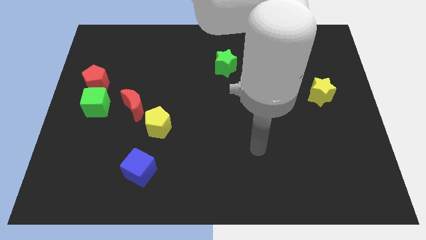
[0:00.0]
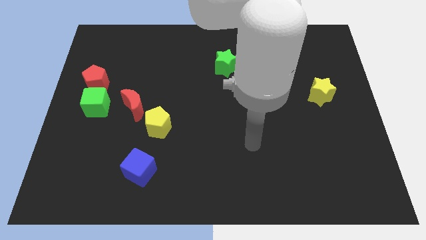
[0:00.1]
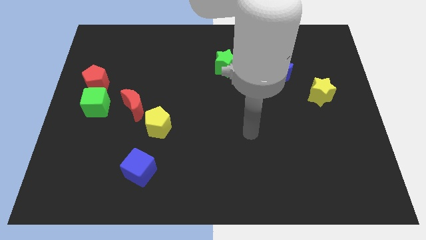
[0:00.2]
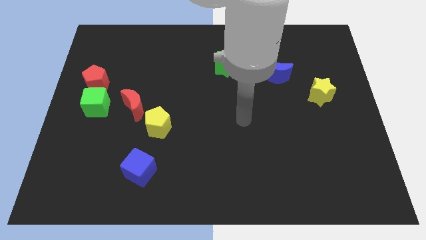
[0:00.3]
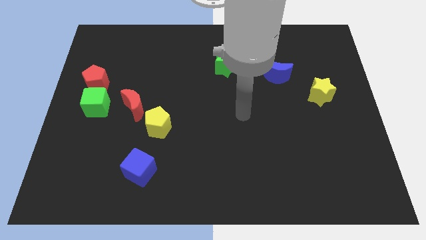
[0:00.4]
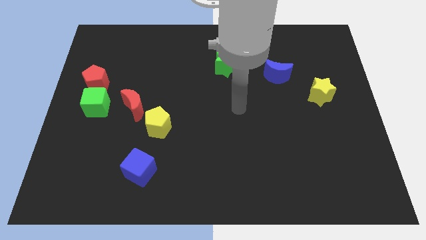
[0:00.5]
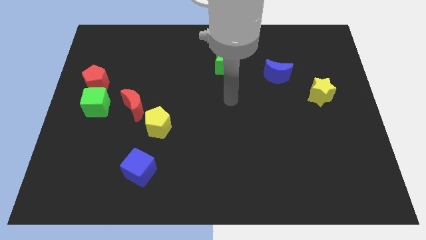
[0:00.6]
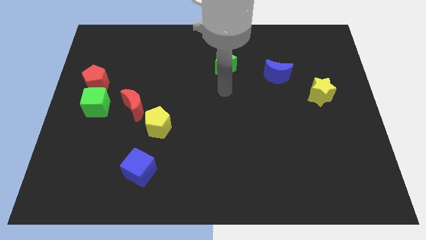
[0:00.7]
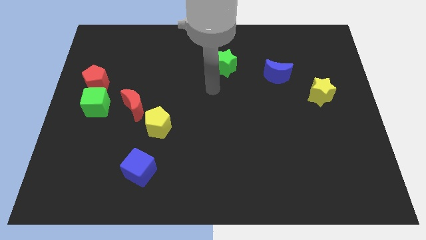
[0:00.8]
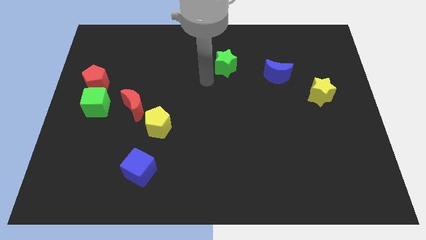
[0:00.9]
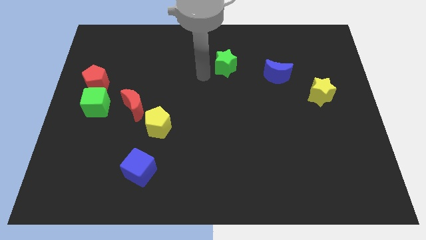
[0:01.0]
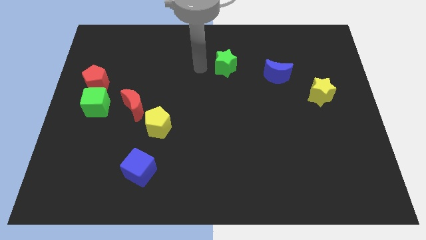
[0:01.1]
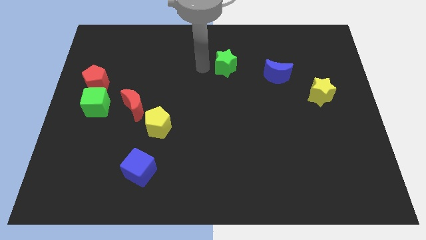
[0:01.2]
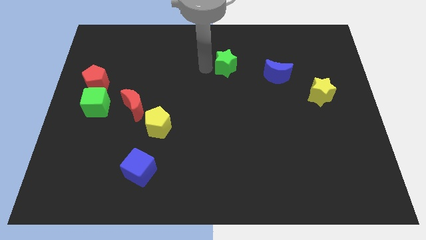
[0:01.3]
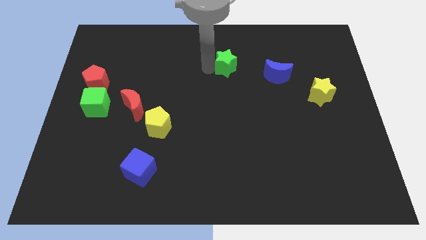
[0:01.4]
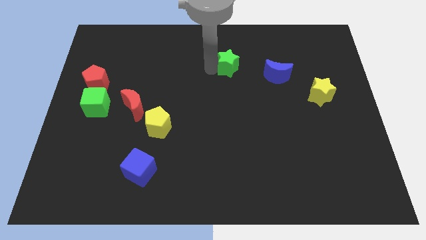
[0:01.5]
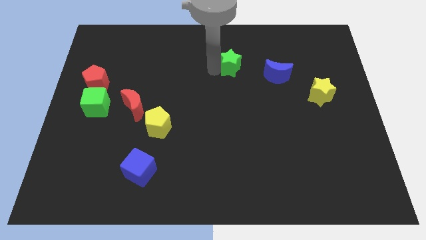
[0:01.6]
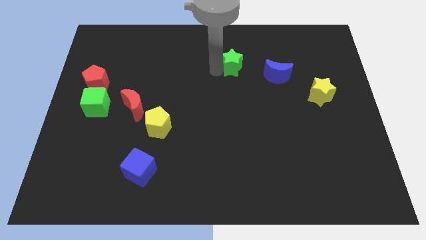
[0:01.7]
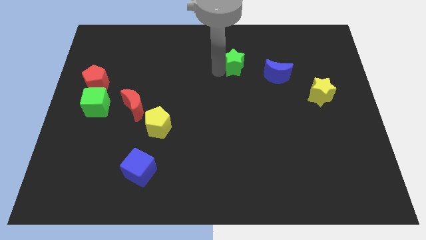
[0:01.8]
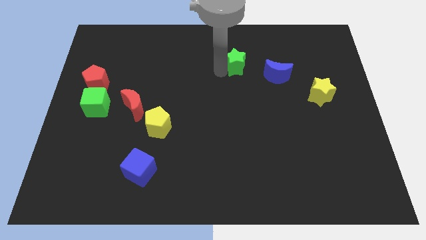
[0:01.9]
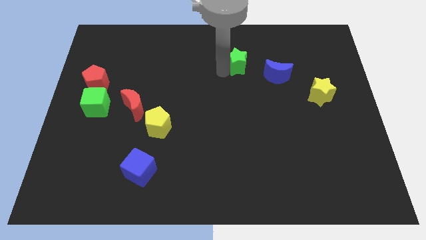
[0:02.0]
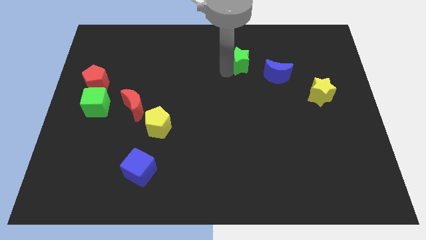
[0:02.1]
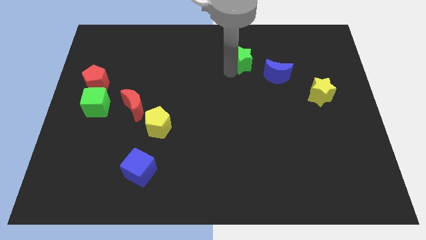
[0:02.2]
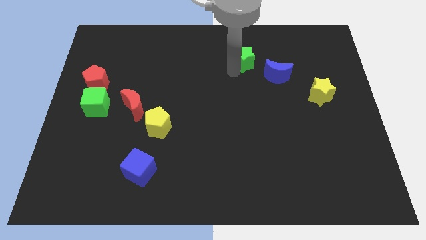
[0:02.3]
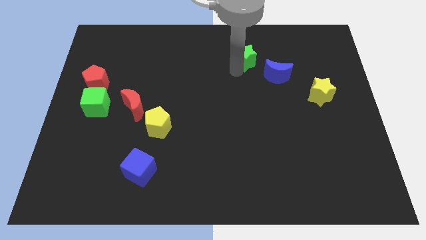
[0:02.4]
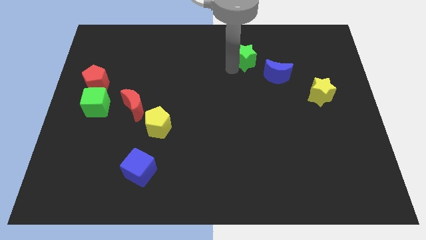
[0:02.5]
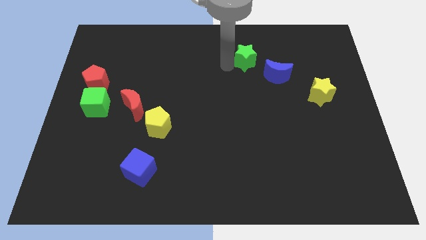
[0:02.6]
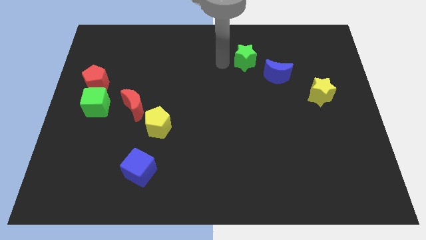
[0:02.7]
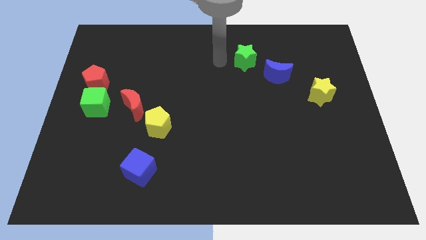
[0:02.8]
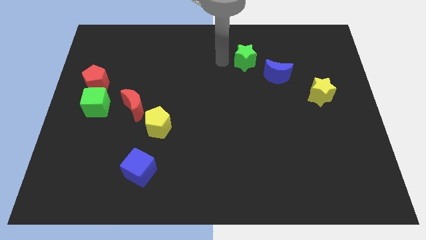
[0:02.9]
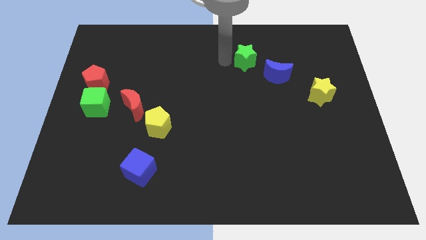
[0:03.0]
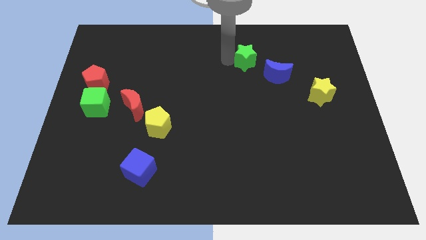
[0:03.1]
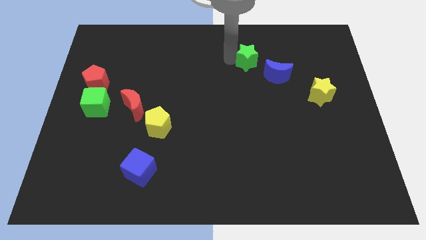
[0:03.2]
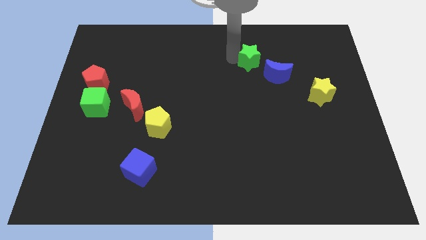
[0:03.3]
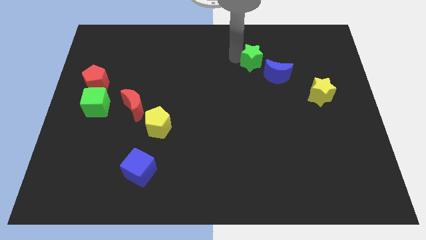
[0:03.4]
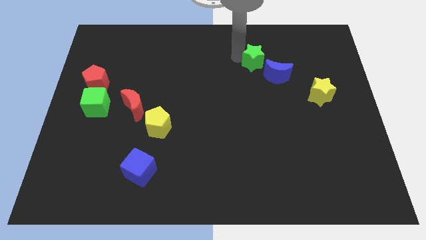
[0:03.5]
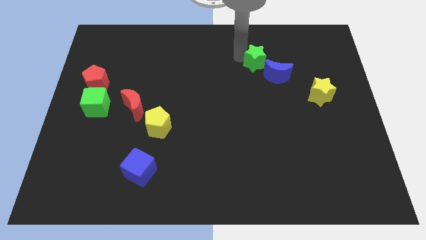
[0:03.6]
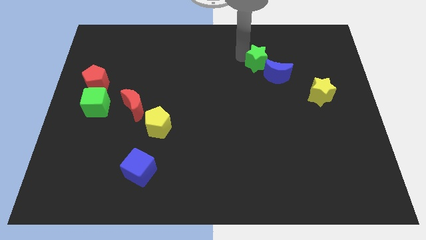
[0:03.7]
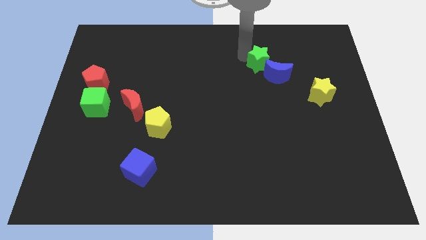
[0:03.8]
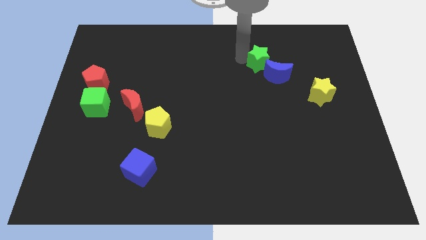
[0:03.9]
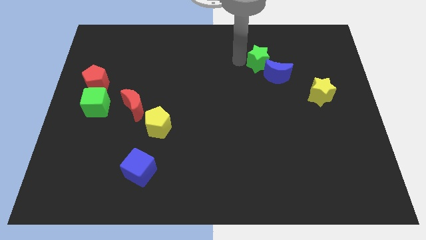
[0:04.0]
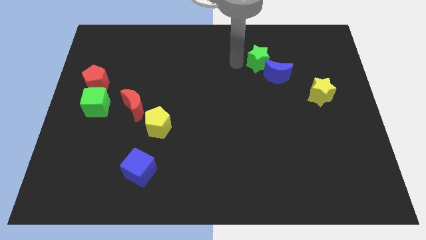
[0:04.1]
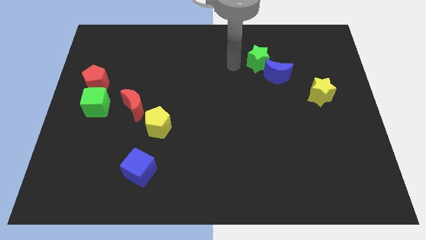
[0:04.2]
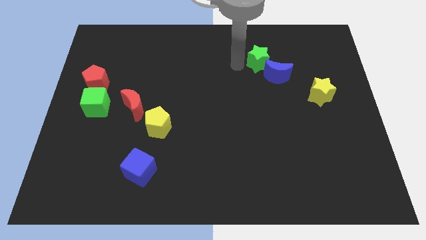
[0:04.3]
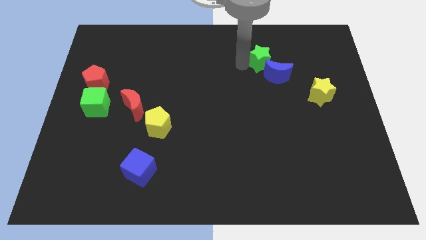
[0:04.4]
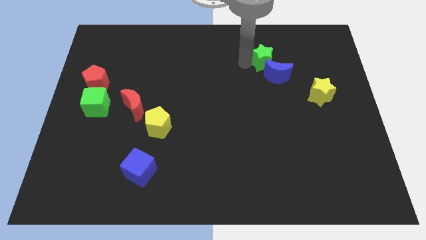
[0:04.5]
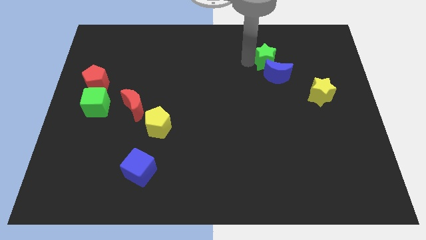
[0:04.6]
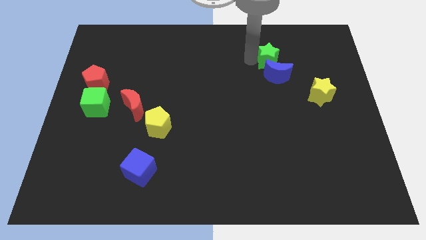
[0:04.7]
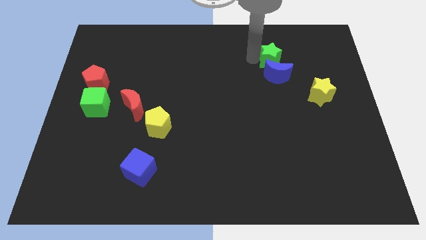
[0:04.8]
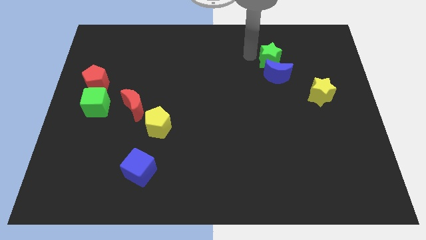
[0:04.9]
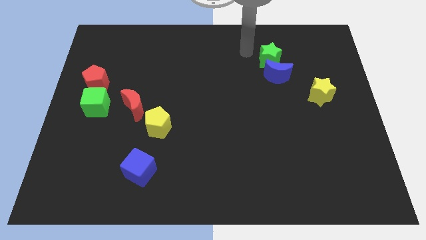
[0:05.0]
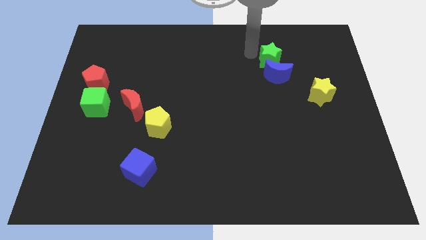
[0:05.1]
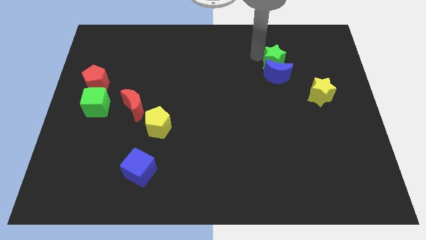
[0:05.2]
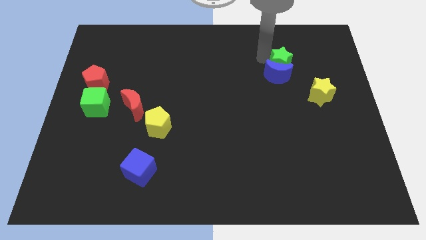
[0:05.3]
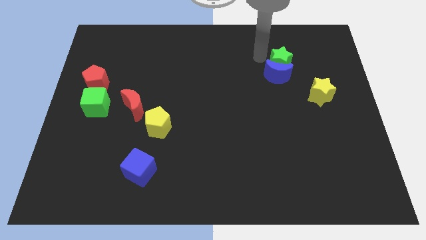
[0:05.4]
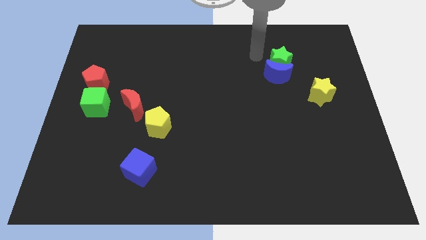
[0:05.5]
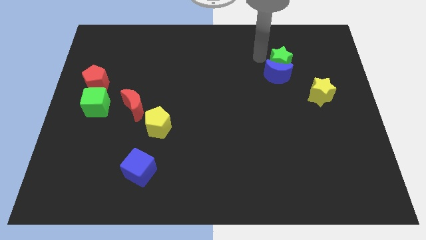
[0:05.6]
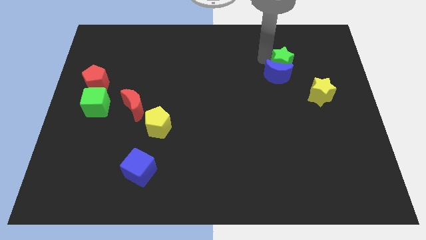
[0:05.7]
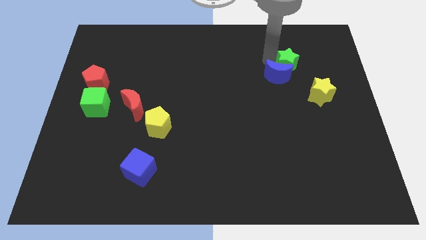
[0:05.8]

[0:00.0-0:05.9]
move the green star diagonally up and to the left of the yellow star

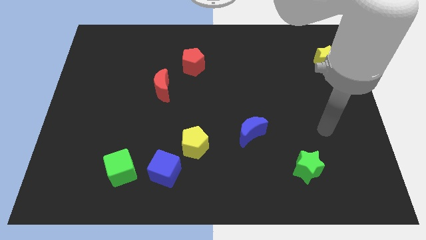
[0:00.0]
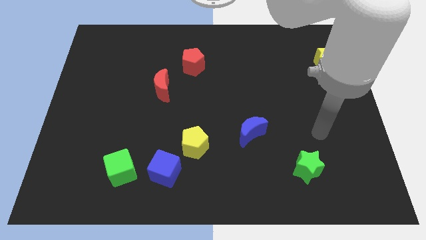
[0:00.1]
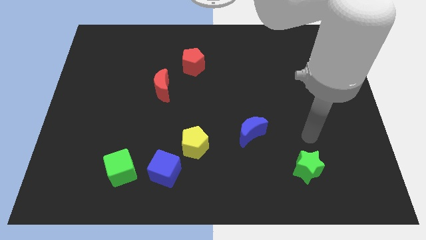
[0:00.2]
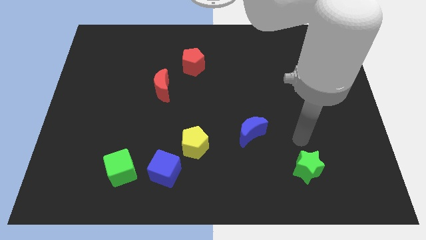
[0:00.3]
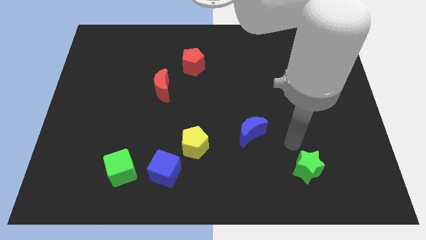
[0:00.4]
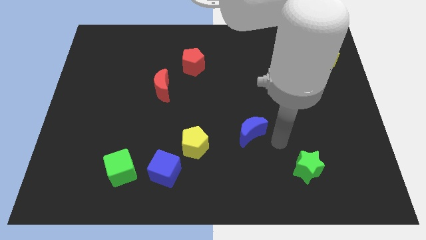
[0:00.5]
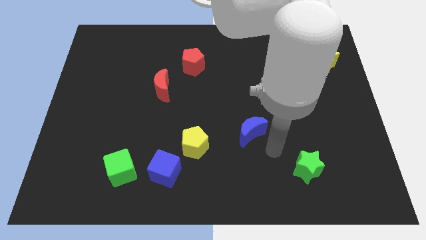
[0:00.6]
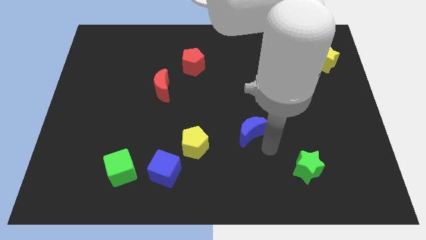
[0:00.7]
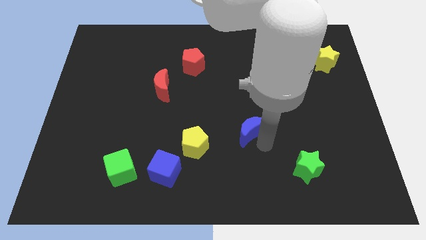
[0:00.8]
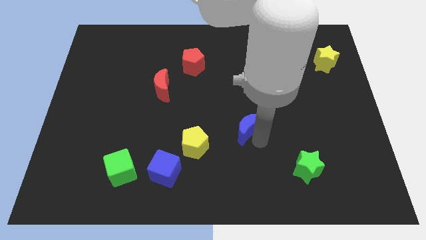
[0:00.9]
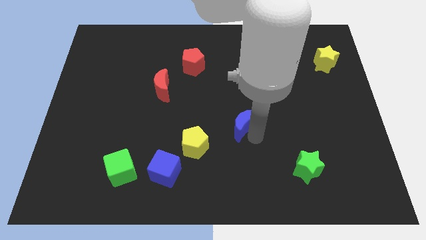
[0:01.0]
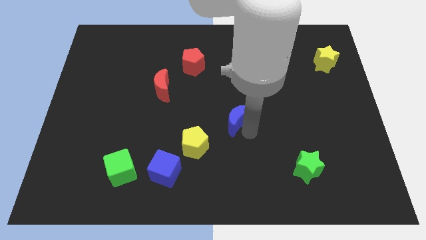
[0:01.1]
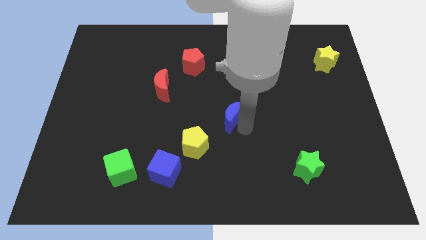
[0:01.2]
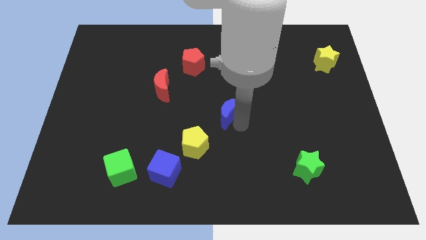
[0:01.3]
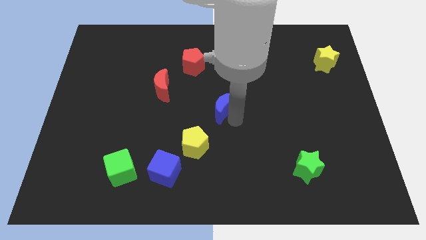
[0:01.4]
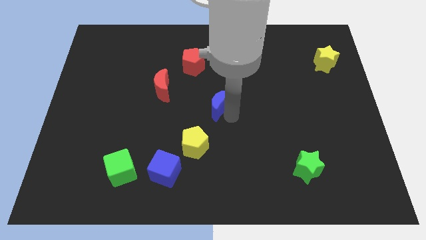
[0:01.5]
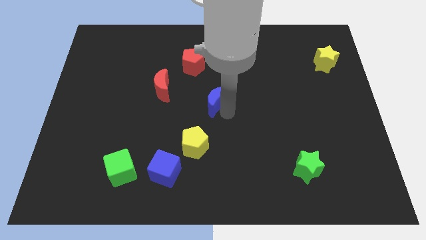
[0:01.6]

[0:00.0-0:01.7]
slide the blue moon just right of the red moon
